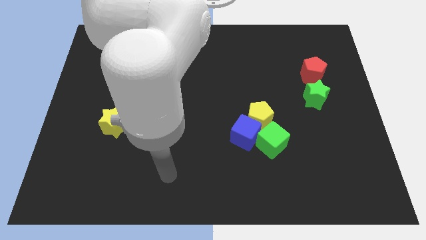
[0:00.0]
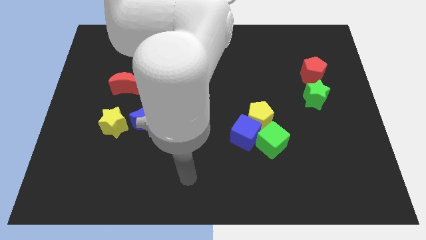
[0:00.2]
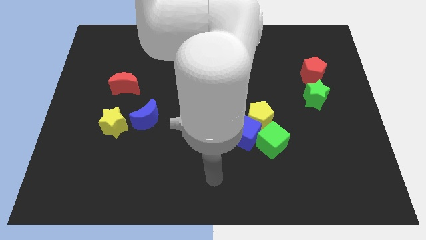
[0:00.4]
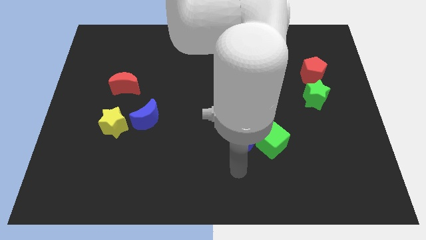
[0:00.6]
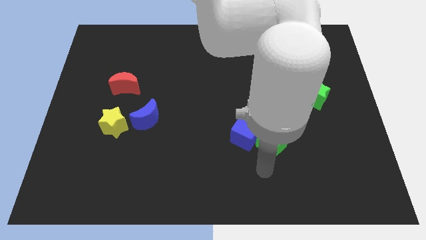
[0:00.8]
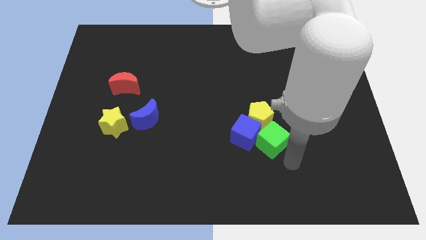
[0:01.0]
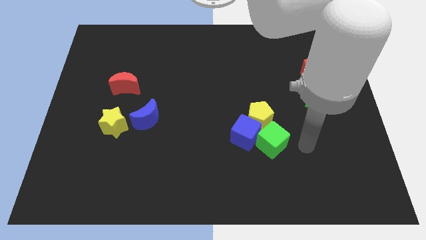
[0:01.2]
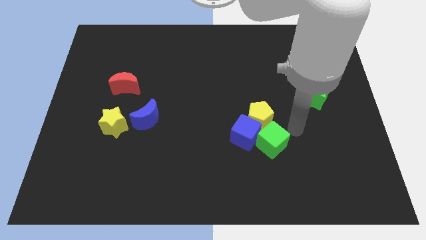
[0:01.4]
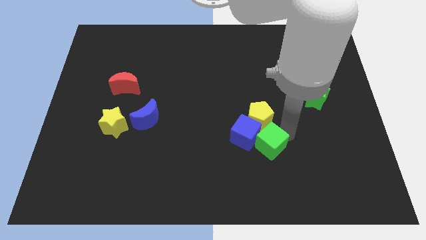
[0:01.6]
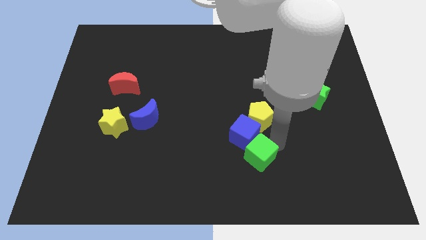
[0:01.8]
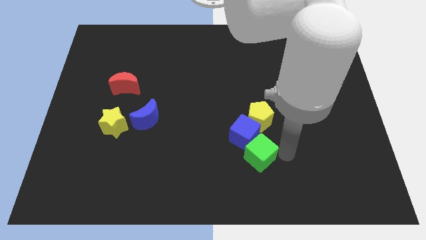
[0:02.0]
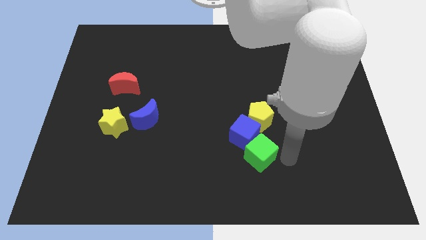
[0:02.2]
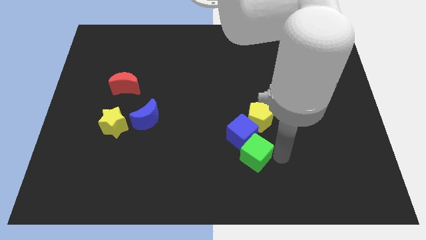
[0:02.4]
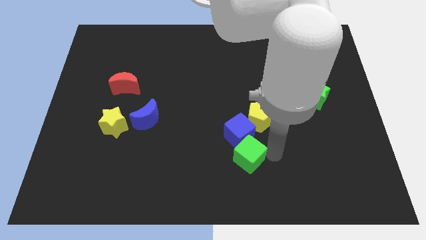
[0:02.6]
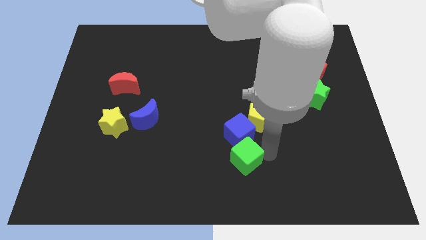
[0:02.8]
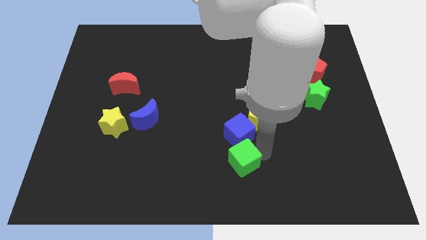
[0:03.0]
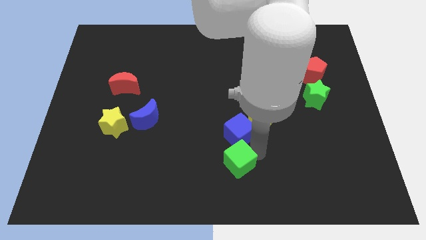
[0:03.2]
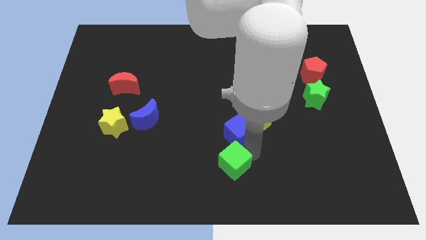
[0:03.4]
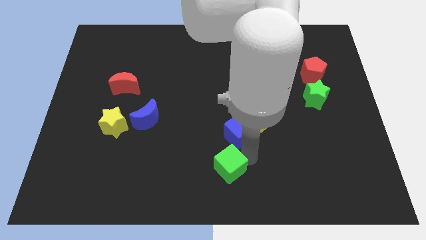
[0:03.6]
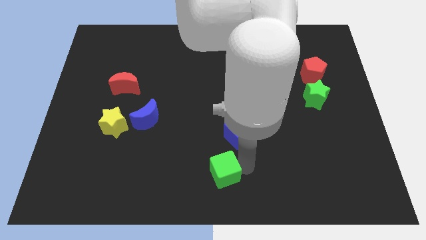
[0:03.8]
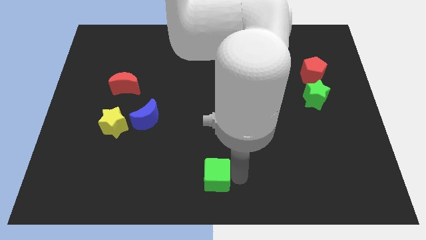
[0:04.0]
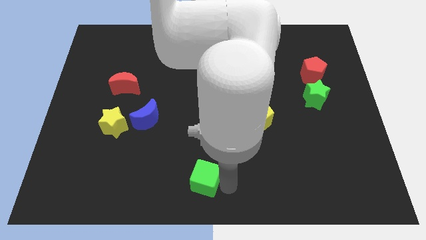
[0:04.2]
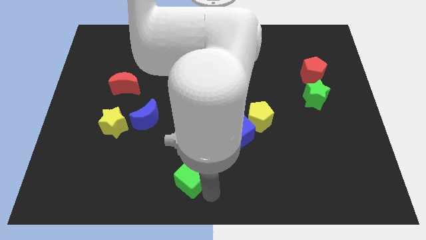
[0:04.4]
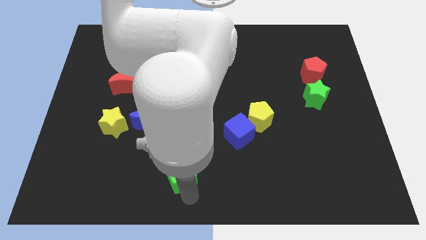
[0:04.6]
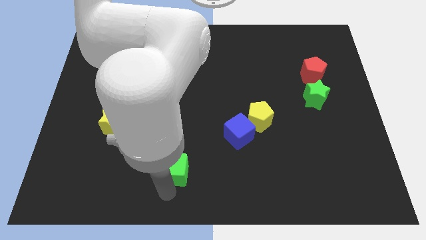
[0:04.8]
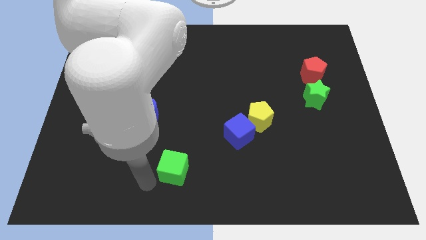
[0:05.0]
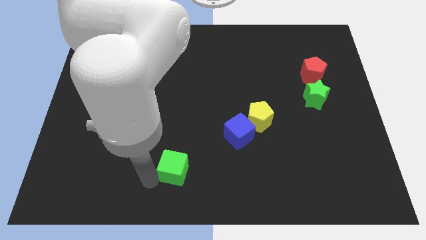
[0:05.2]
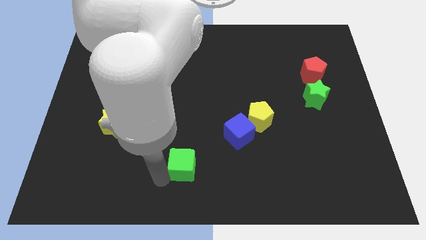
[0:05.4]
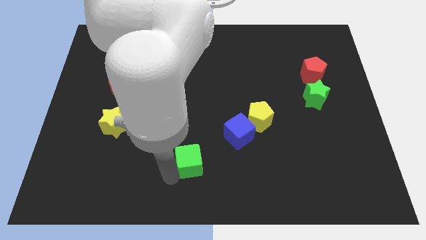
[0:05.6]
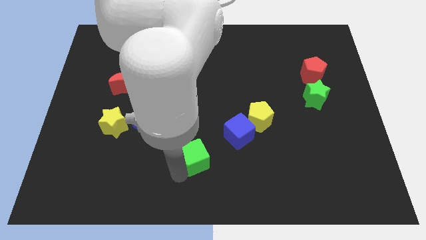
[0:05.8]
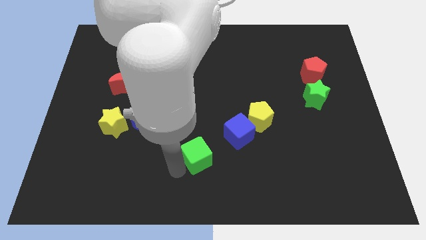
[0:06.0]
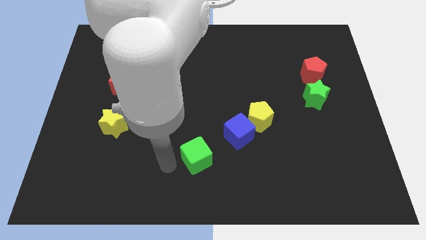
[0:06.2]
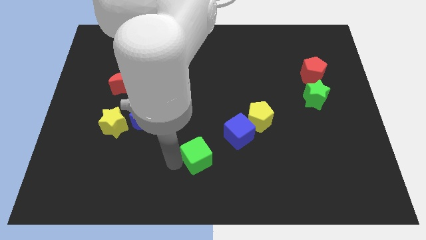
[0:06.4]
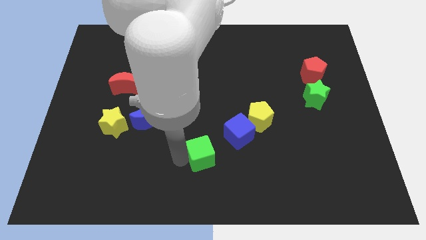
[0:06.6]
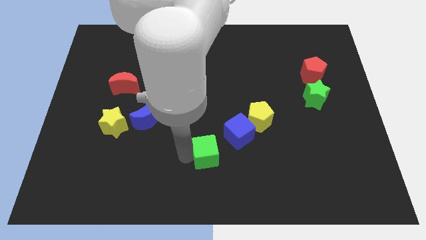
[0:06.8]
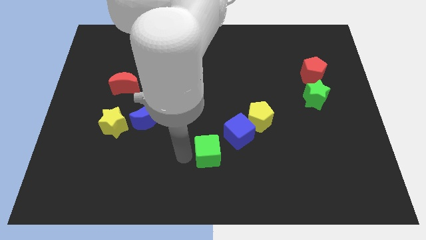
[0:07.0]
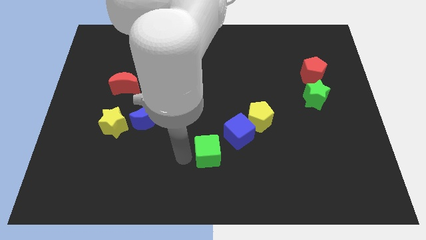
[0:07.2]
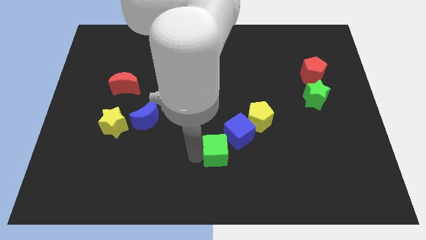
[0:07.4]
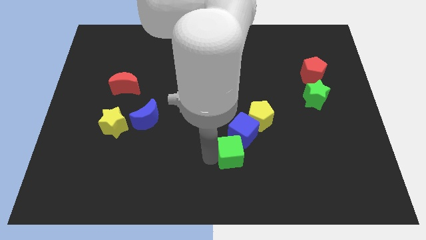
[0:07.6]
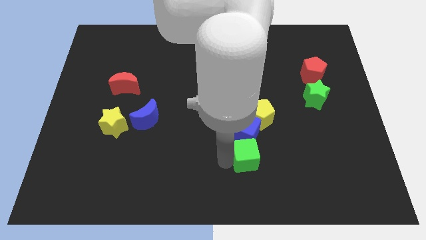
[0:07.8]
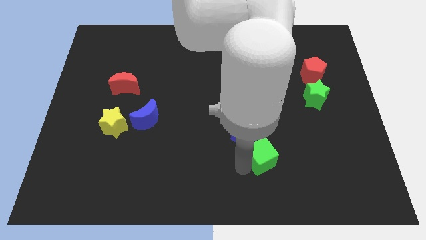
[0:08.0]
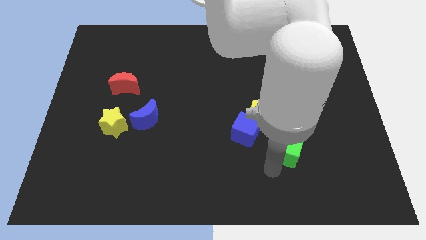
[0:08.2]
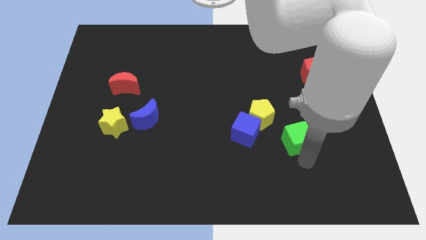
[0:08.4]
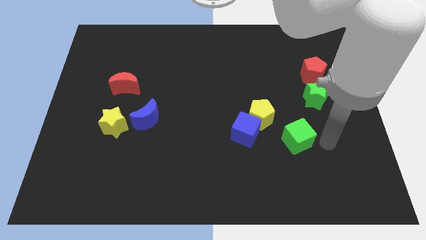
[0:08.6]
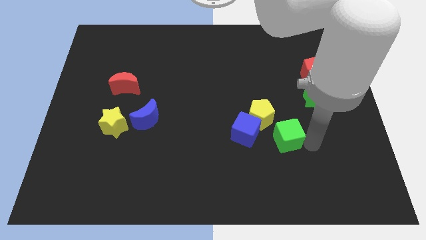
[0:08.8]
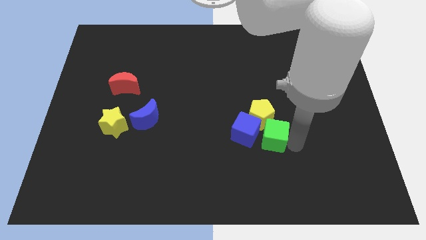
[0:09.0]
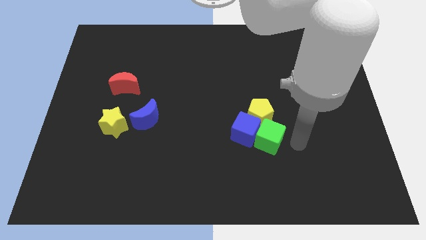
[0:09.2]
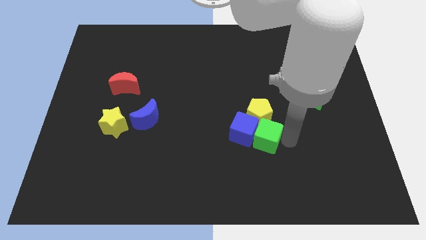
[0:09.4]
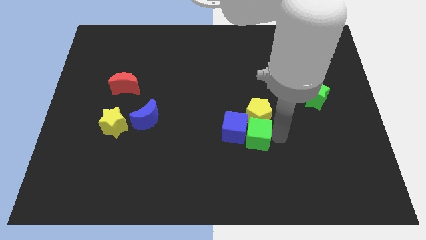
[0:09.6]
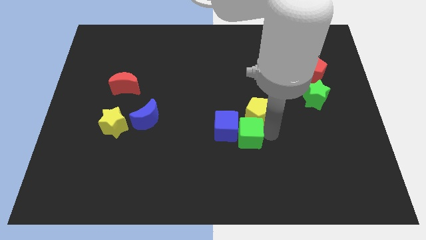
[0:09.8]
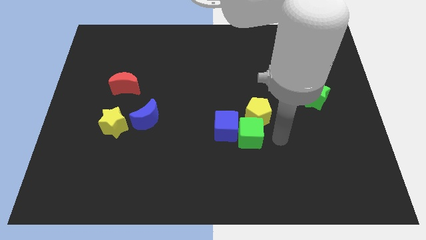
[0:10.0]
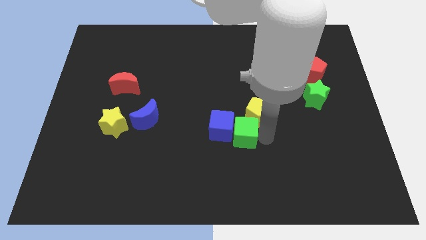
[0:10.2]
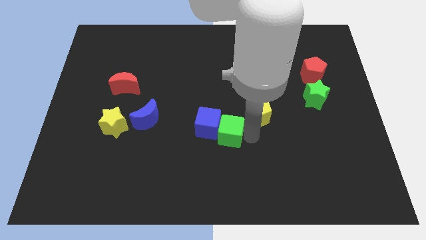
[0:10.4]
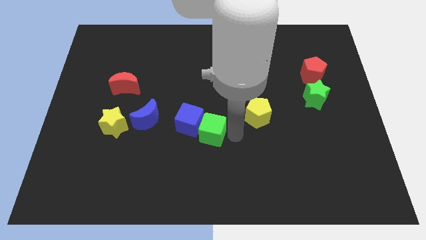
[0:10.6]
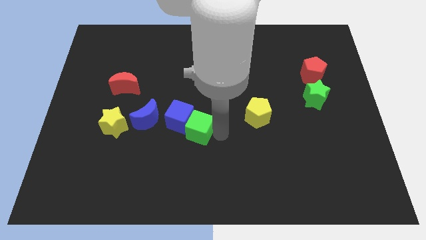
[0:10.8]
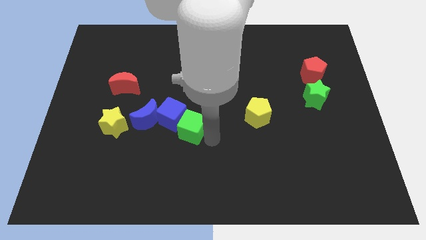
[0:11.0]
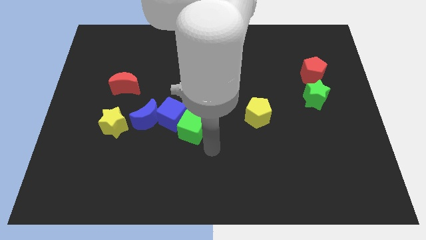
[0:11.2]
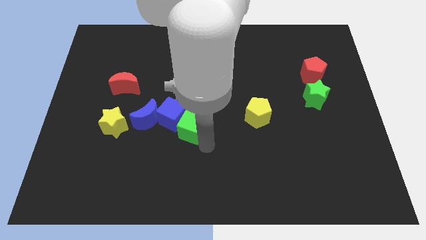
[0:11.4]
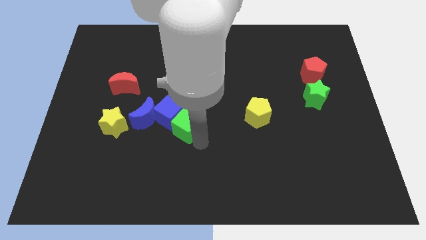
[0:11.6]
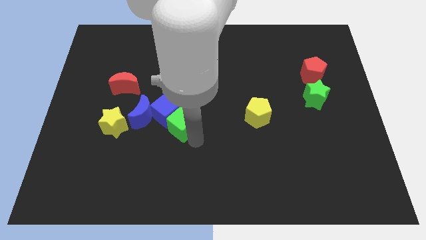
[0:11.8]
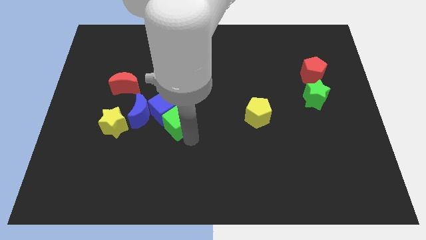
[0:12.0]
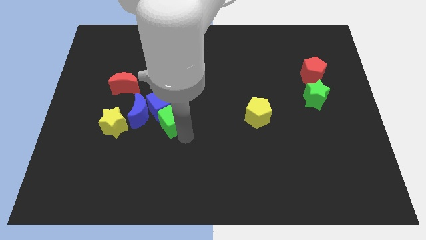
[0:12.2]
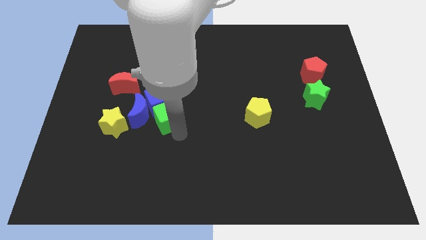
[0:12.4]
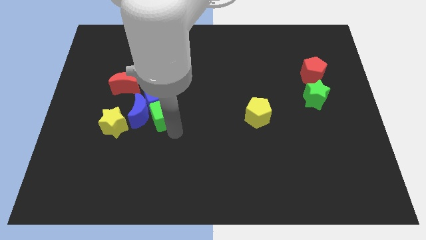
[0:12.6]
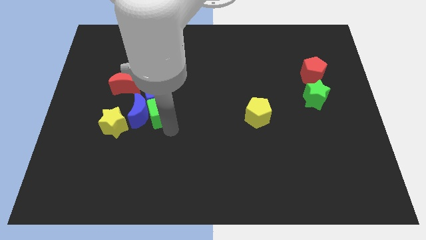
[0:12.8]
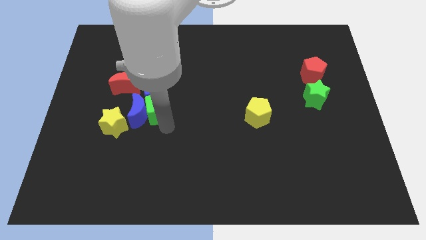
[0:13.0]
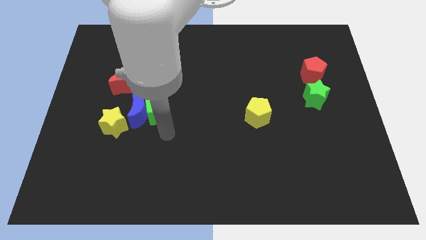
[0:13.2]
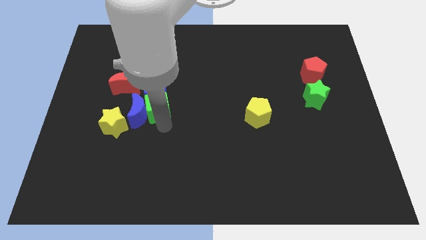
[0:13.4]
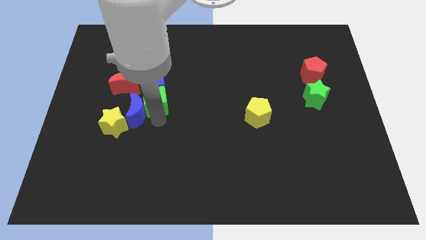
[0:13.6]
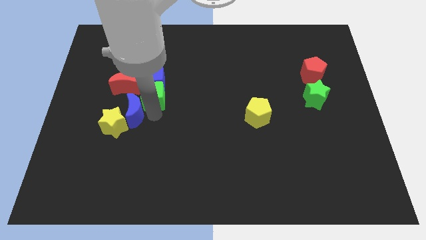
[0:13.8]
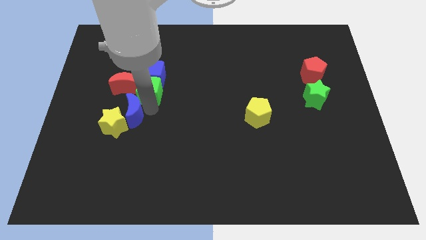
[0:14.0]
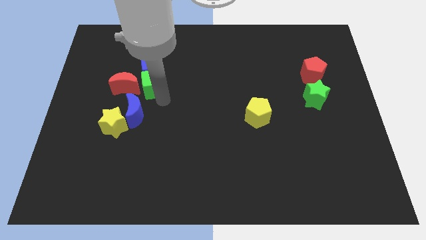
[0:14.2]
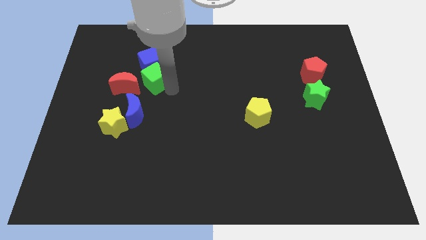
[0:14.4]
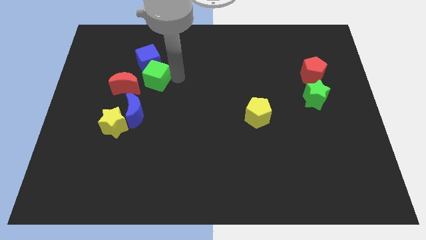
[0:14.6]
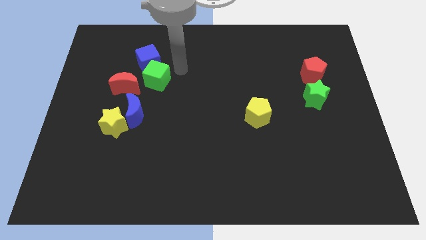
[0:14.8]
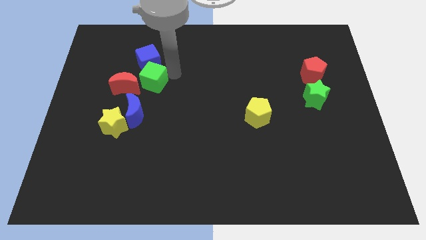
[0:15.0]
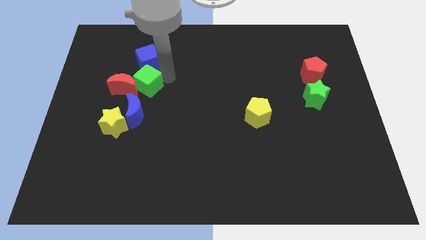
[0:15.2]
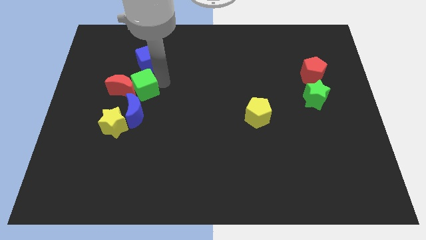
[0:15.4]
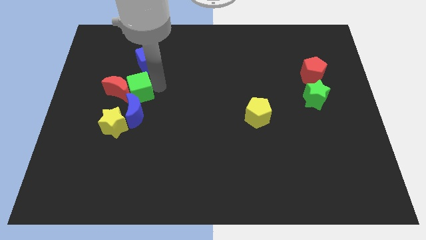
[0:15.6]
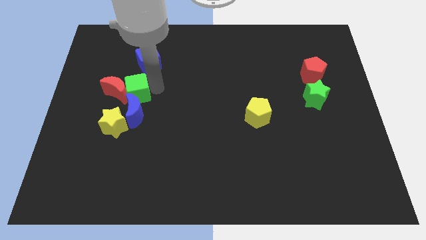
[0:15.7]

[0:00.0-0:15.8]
slide the green cube to the top left of the blue moon
